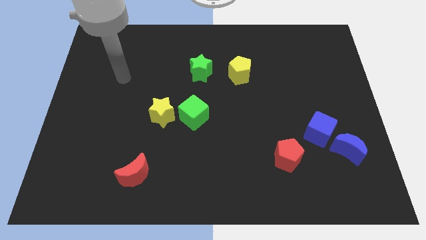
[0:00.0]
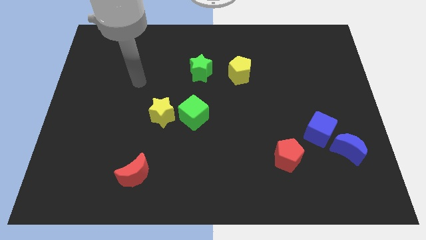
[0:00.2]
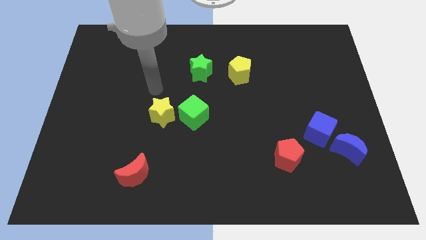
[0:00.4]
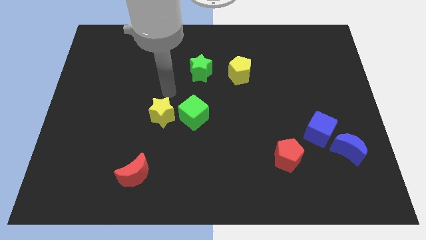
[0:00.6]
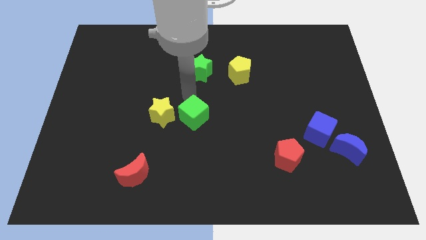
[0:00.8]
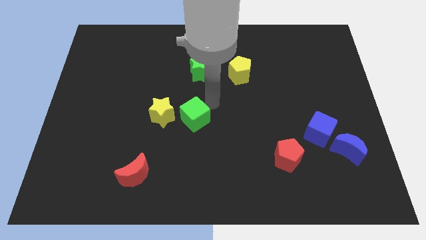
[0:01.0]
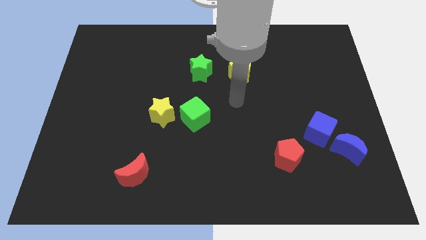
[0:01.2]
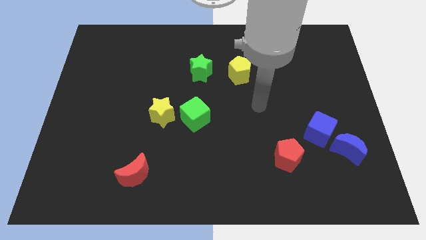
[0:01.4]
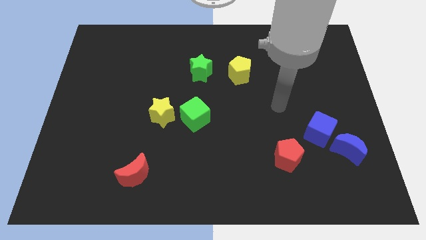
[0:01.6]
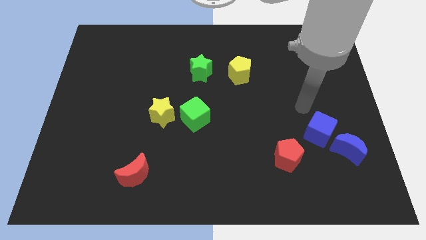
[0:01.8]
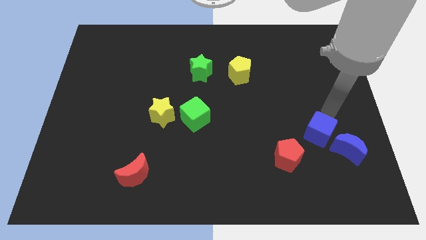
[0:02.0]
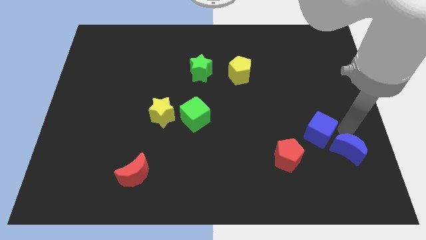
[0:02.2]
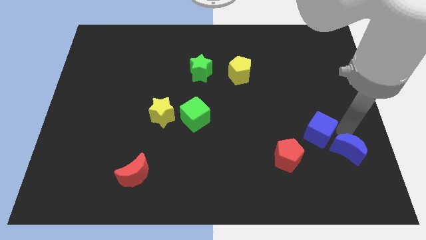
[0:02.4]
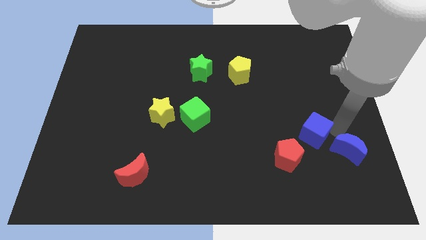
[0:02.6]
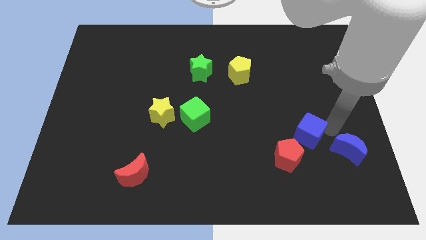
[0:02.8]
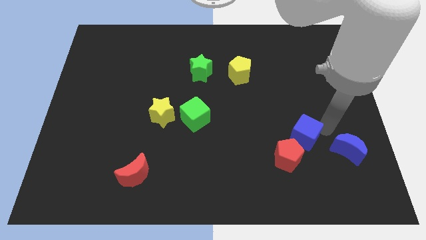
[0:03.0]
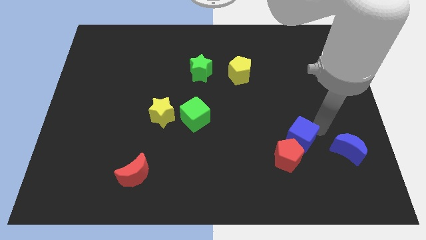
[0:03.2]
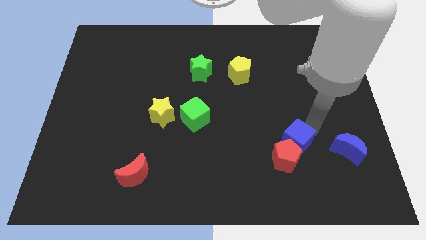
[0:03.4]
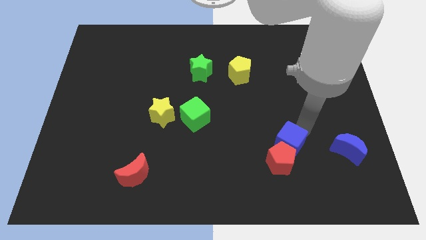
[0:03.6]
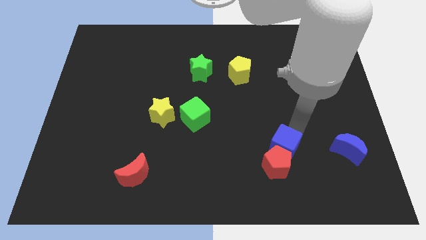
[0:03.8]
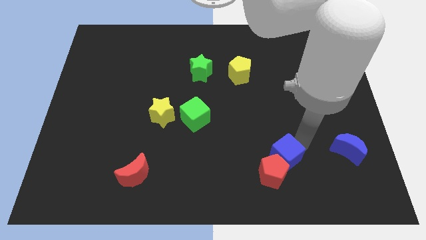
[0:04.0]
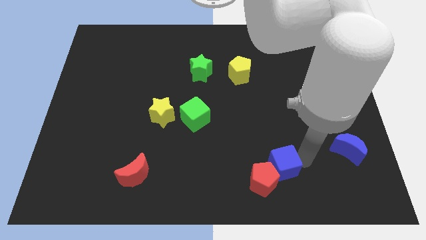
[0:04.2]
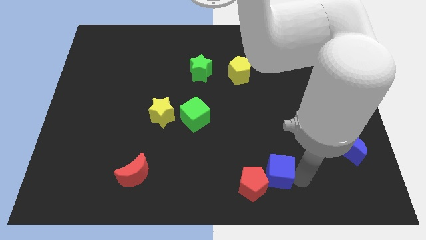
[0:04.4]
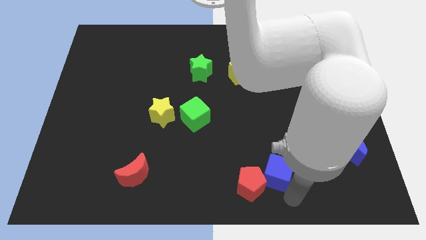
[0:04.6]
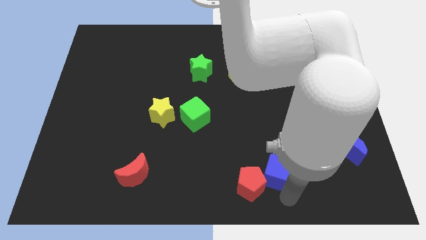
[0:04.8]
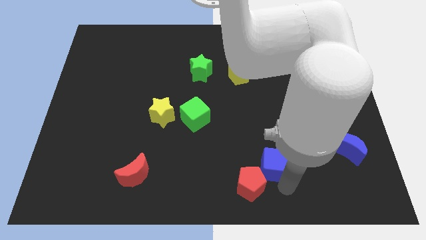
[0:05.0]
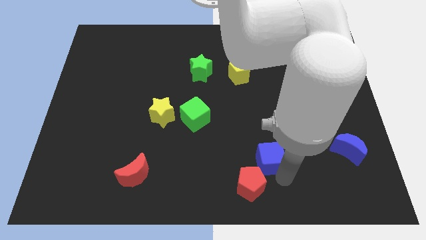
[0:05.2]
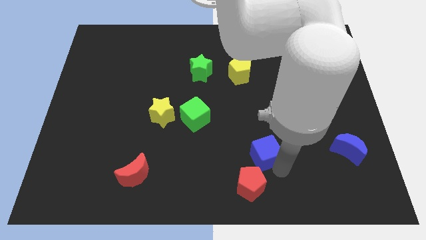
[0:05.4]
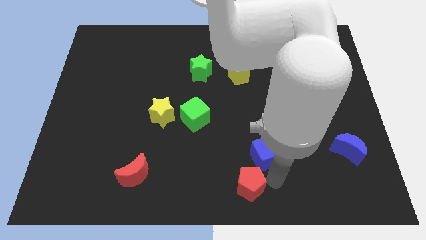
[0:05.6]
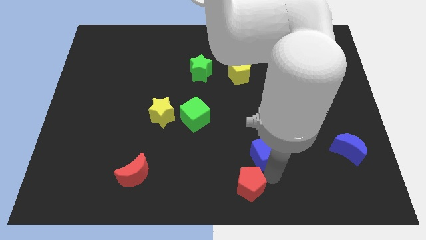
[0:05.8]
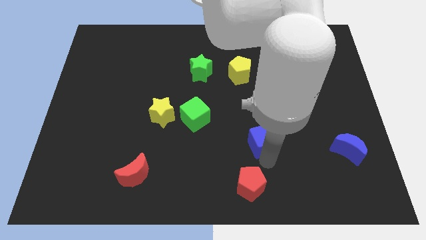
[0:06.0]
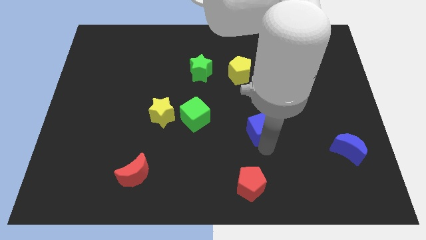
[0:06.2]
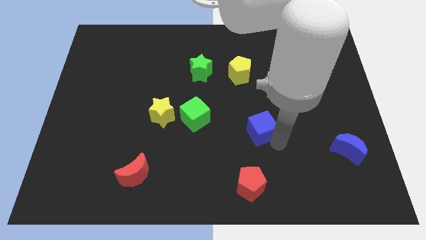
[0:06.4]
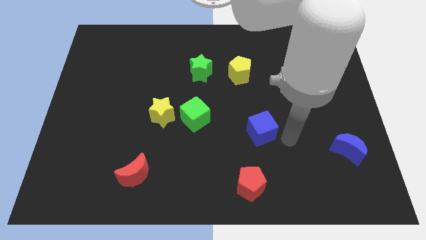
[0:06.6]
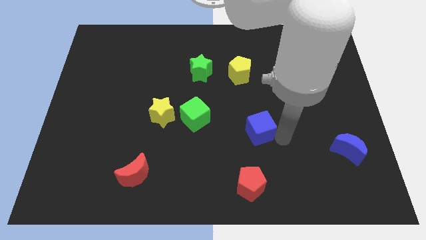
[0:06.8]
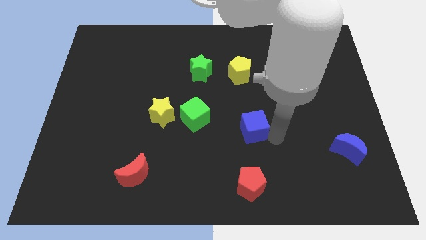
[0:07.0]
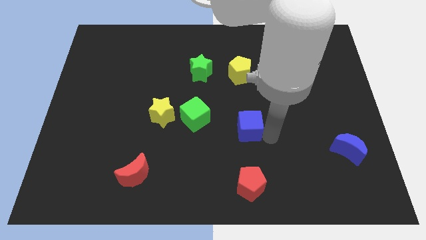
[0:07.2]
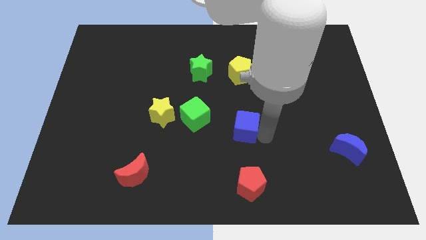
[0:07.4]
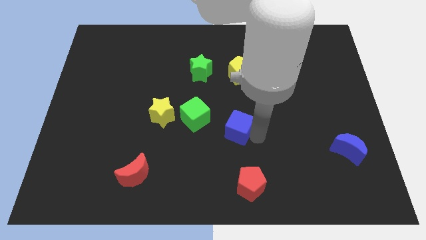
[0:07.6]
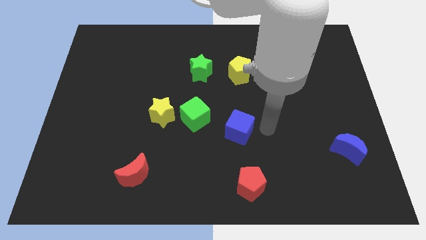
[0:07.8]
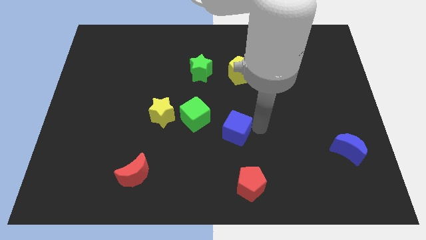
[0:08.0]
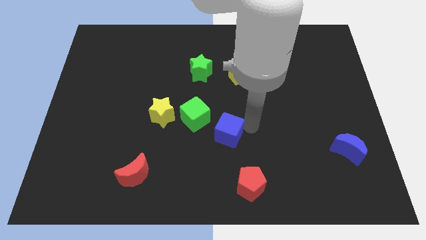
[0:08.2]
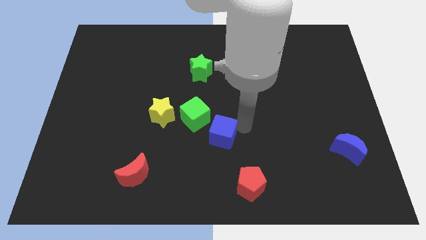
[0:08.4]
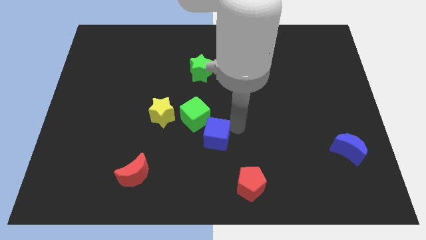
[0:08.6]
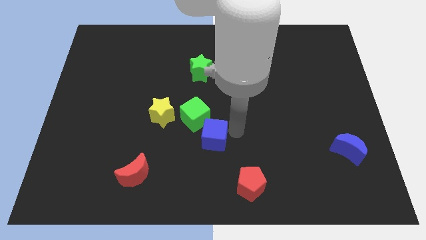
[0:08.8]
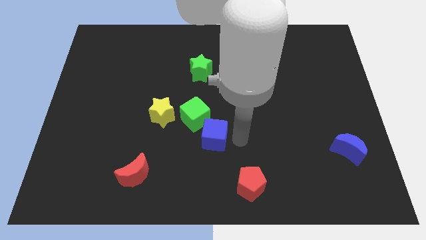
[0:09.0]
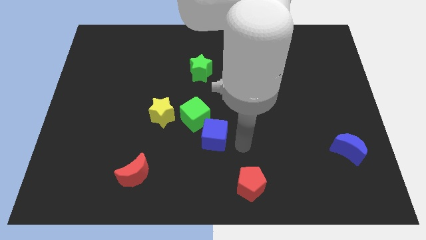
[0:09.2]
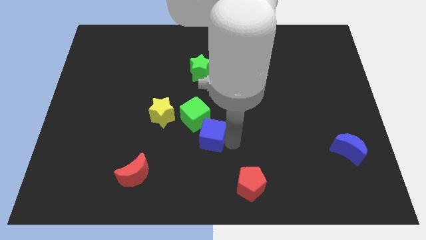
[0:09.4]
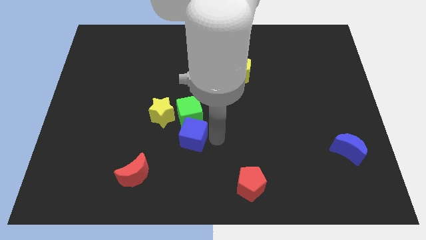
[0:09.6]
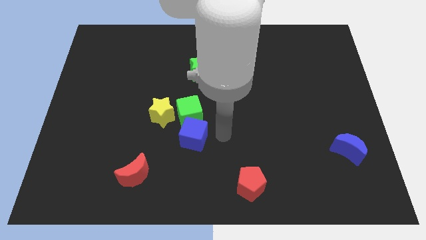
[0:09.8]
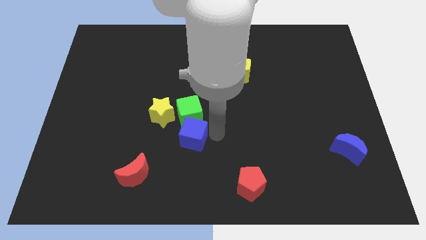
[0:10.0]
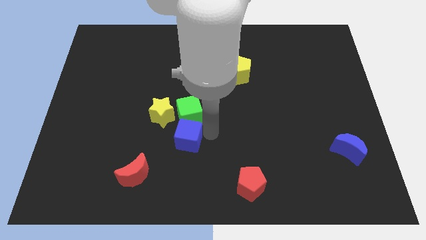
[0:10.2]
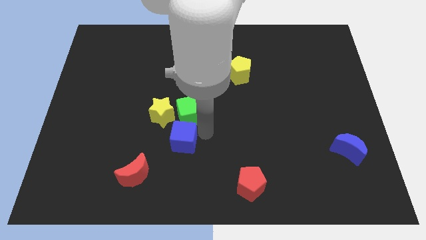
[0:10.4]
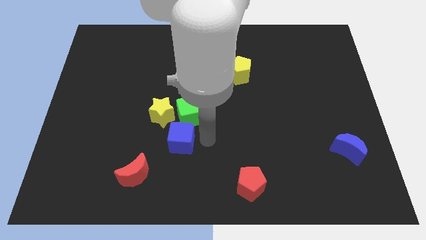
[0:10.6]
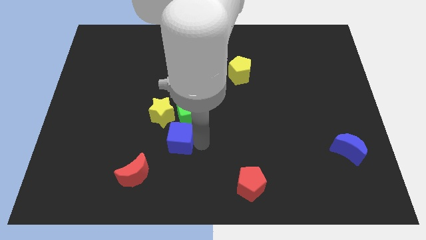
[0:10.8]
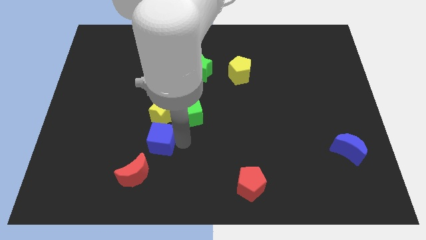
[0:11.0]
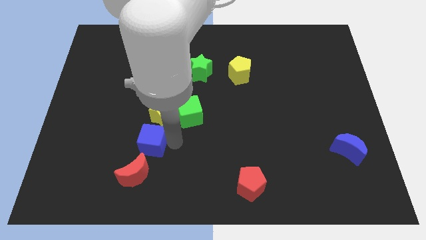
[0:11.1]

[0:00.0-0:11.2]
put the blue cube to the bottom left side of the yellow star

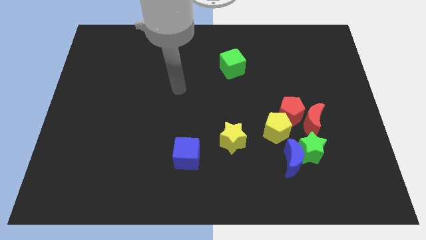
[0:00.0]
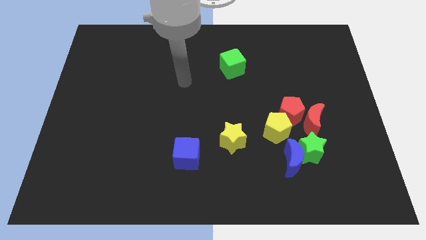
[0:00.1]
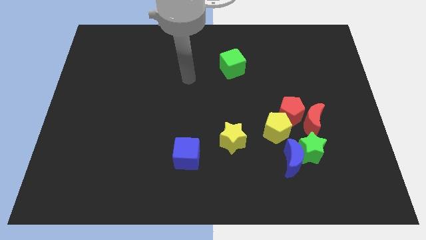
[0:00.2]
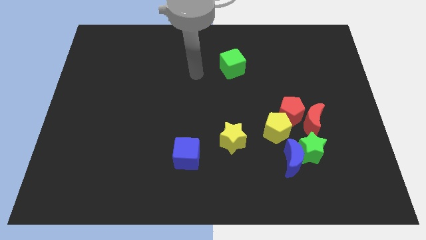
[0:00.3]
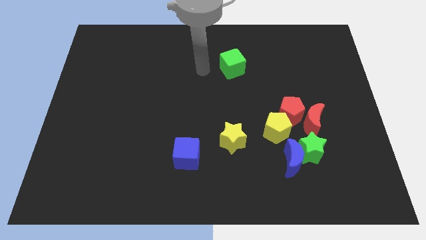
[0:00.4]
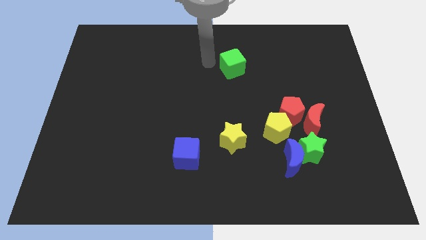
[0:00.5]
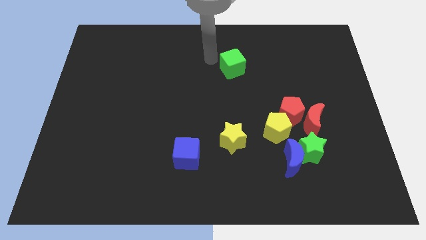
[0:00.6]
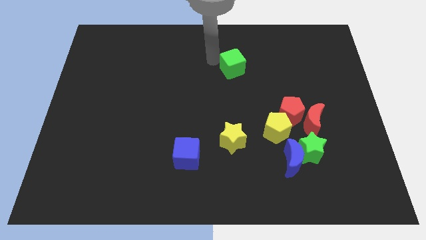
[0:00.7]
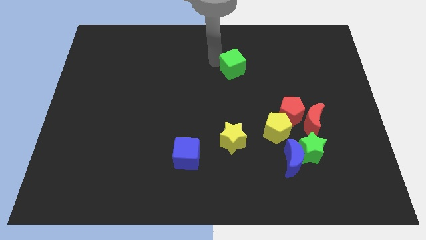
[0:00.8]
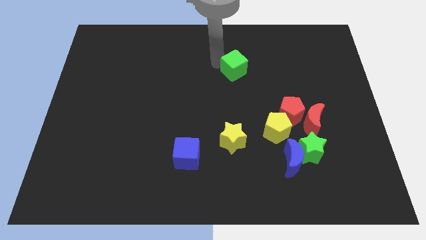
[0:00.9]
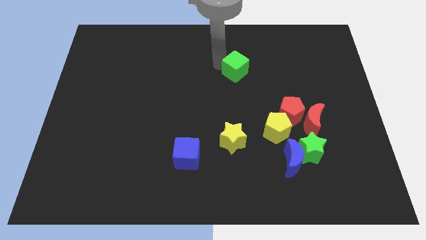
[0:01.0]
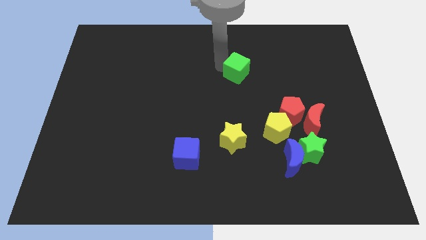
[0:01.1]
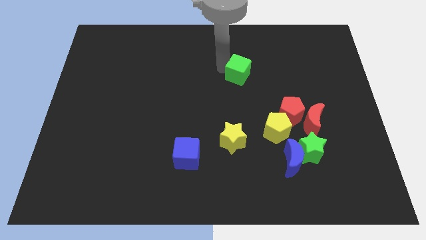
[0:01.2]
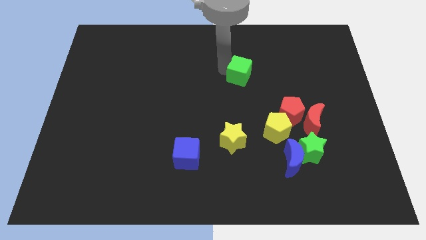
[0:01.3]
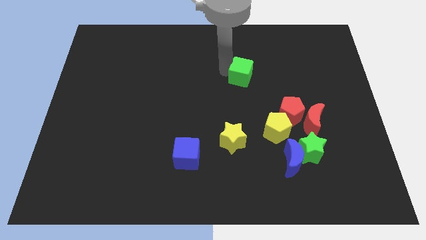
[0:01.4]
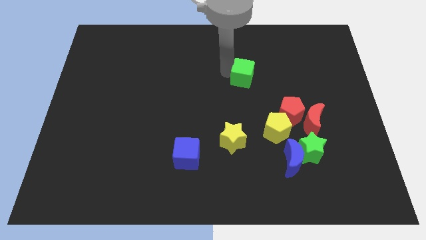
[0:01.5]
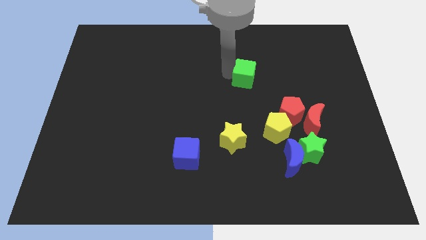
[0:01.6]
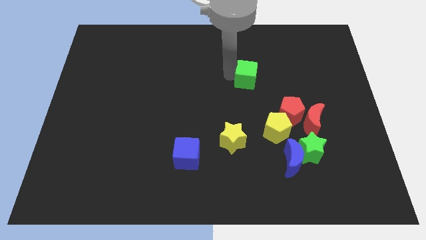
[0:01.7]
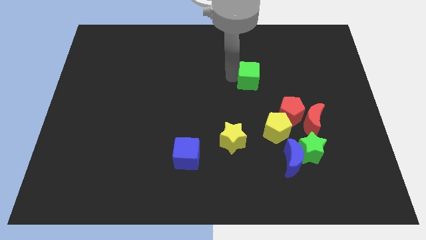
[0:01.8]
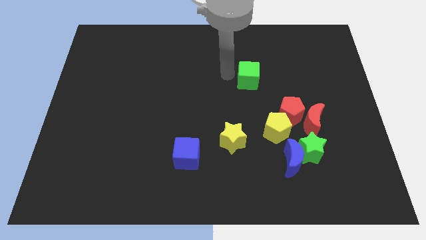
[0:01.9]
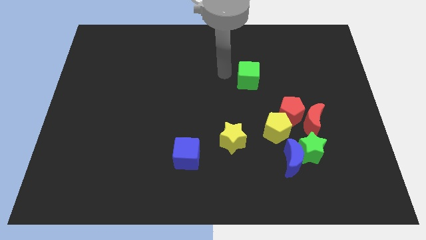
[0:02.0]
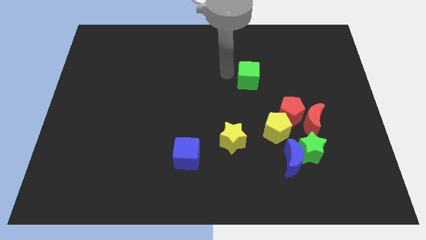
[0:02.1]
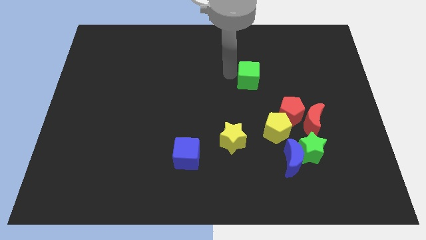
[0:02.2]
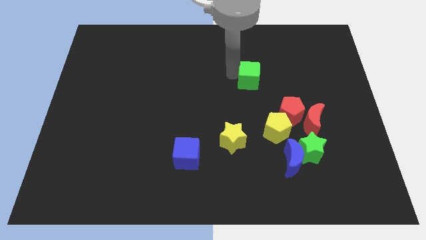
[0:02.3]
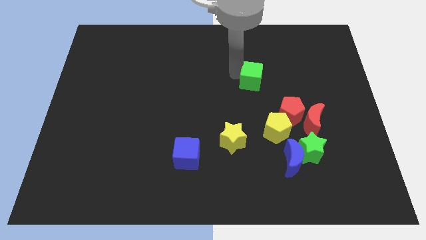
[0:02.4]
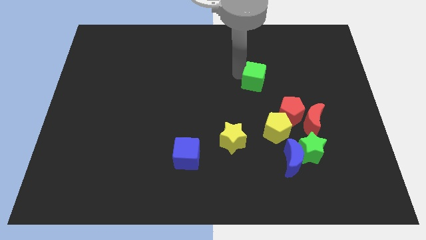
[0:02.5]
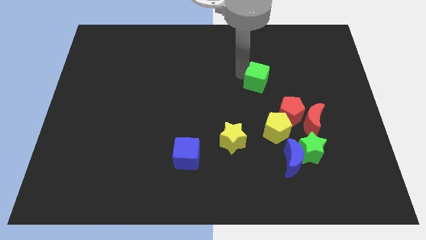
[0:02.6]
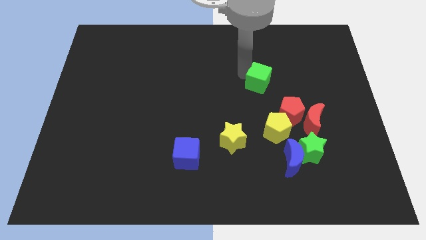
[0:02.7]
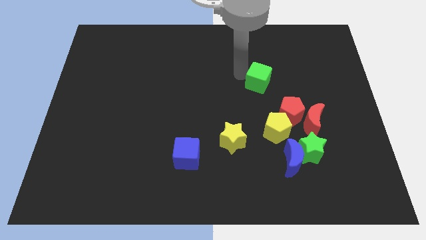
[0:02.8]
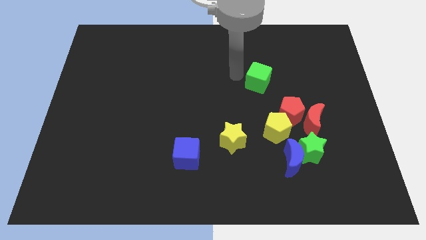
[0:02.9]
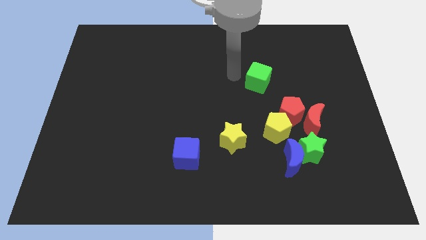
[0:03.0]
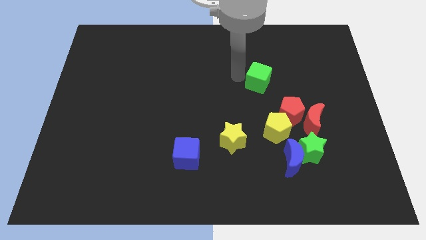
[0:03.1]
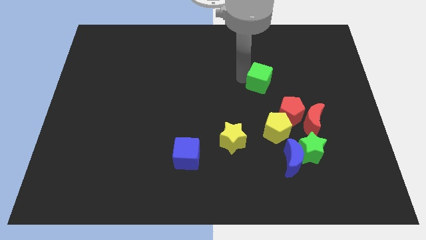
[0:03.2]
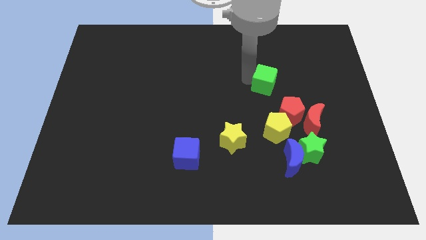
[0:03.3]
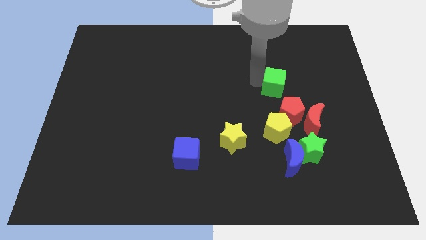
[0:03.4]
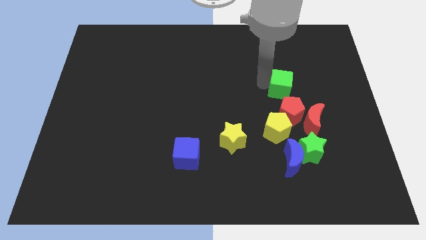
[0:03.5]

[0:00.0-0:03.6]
slide the green cube diagonally up and to the left of the red moon
